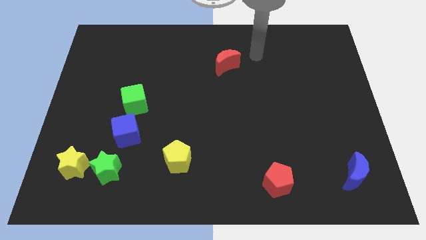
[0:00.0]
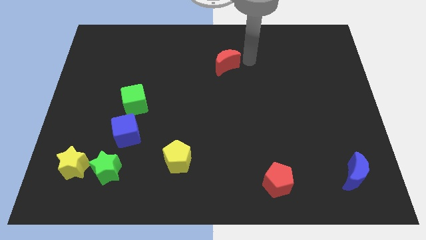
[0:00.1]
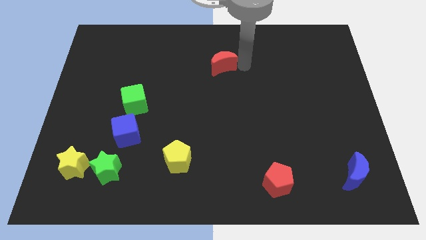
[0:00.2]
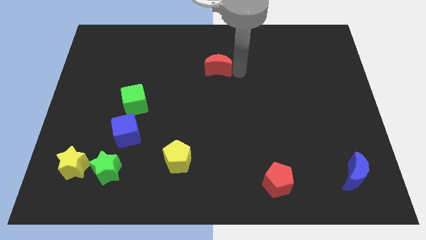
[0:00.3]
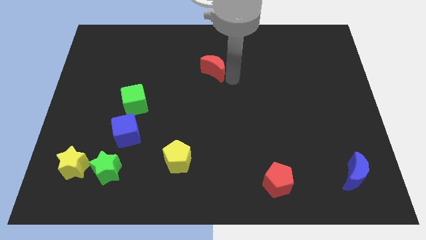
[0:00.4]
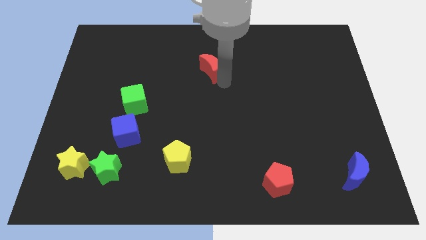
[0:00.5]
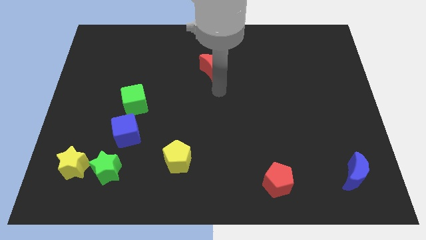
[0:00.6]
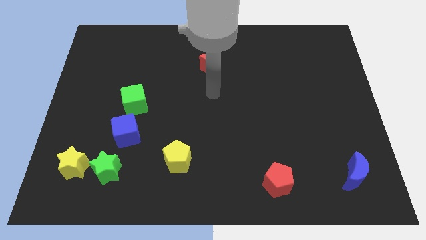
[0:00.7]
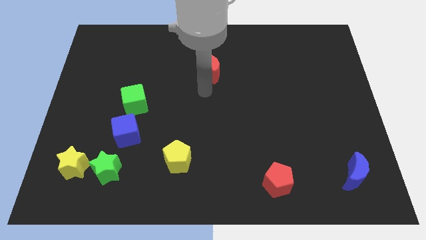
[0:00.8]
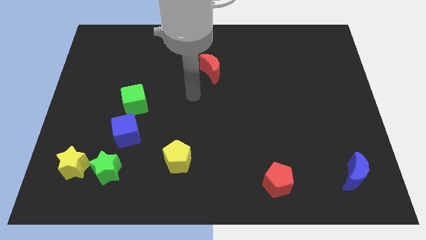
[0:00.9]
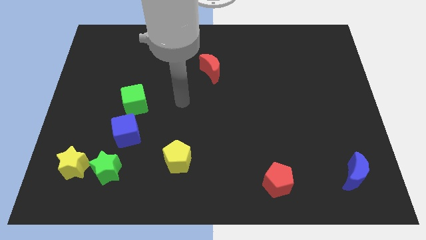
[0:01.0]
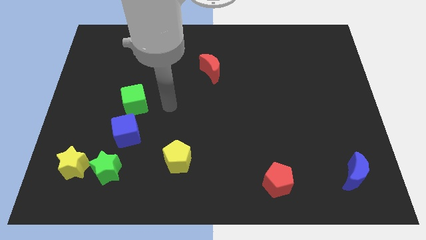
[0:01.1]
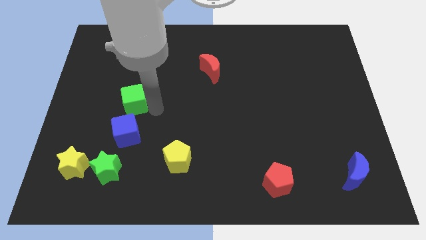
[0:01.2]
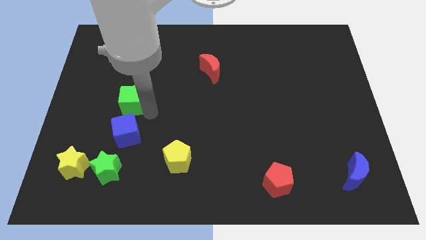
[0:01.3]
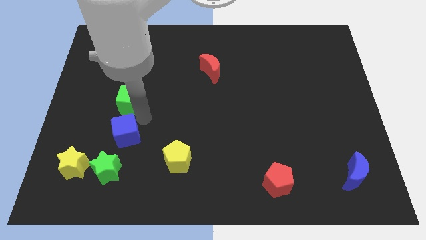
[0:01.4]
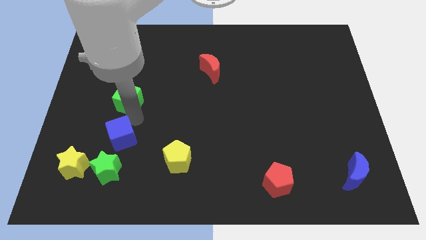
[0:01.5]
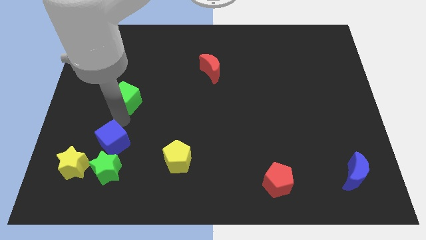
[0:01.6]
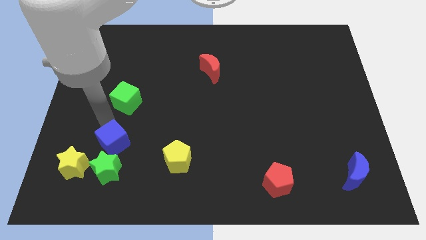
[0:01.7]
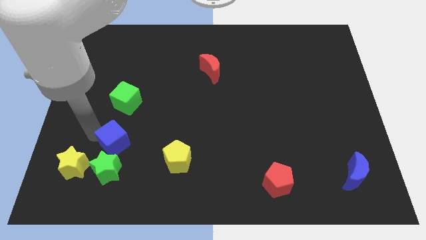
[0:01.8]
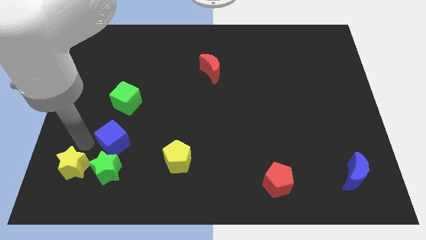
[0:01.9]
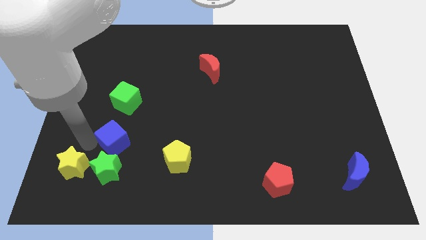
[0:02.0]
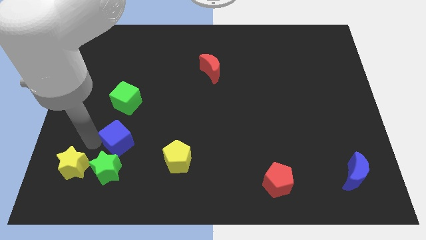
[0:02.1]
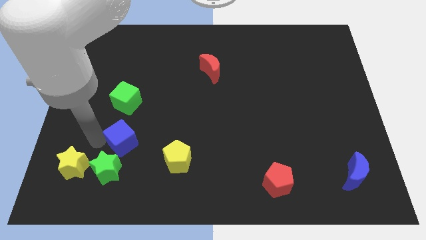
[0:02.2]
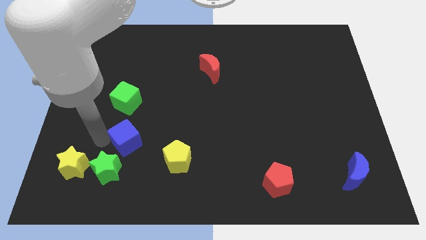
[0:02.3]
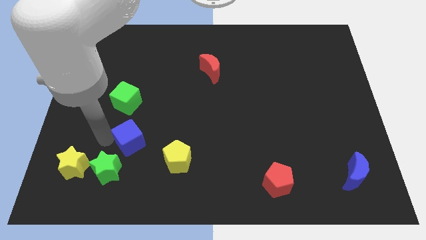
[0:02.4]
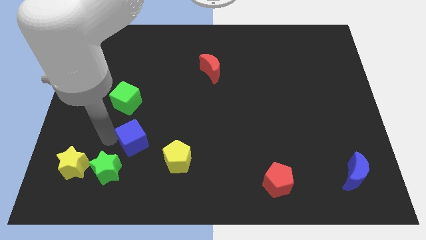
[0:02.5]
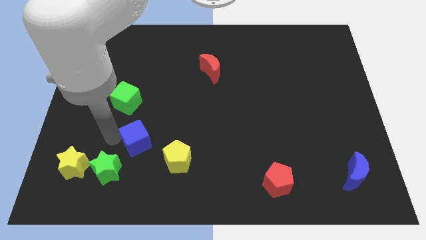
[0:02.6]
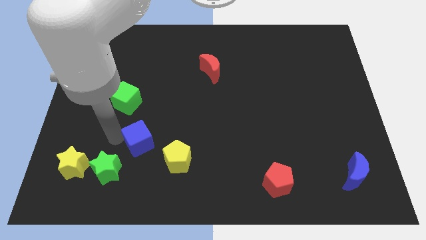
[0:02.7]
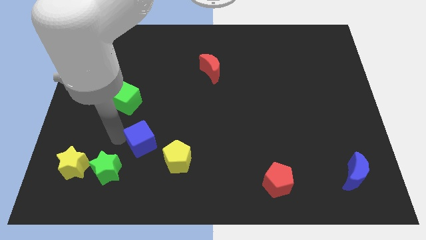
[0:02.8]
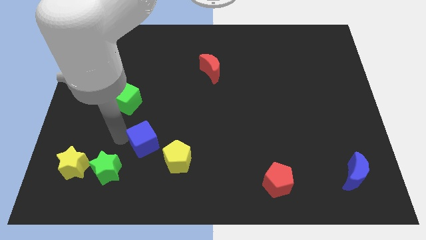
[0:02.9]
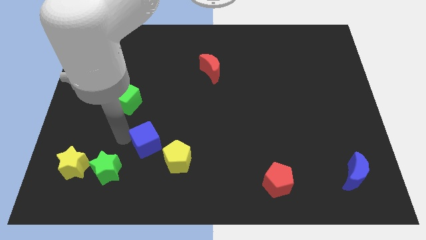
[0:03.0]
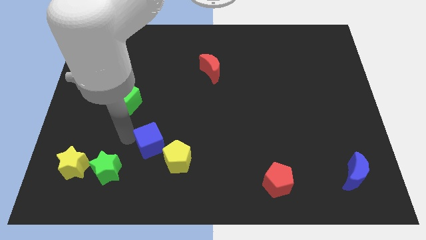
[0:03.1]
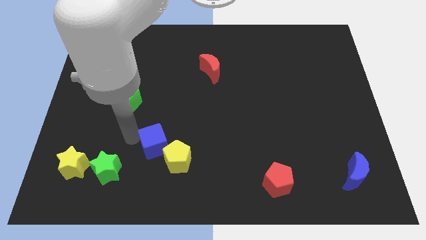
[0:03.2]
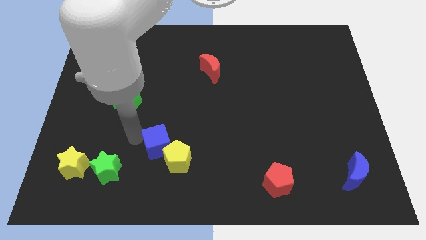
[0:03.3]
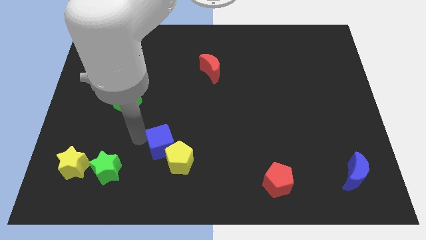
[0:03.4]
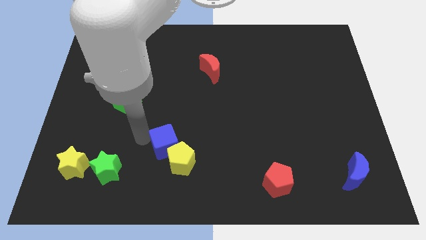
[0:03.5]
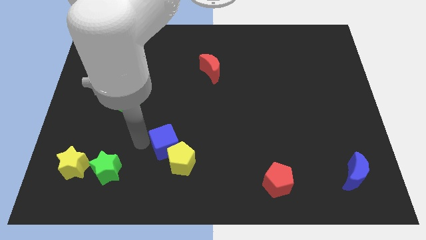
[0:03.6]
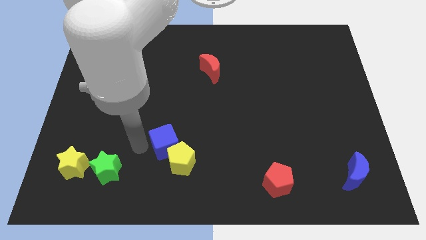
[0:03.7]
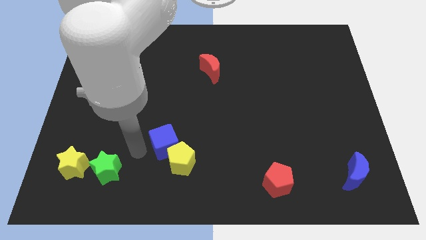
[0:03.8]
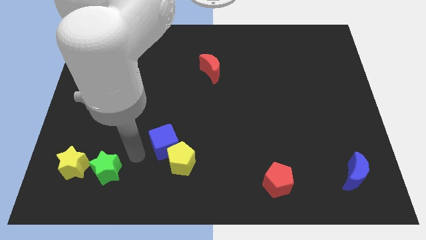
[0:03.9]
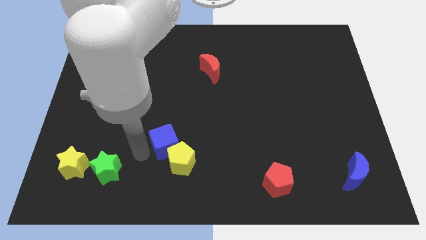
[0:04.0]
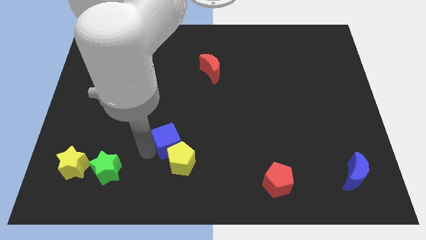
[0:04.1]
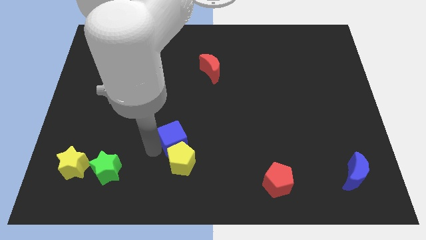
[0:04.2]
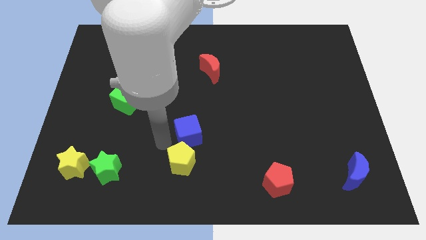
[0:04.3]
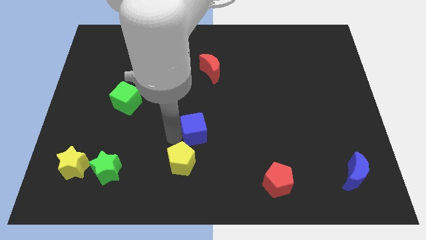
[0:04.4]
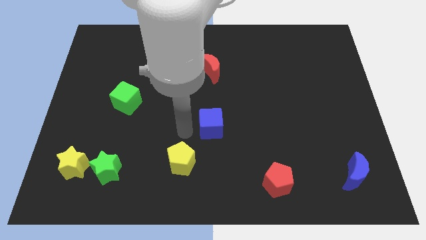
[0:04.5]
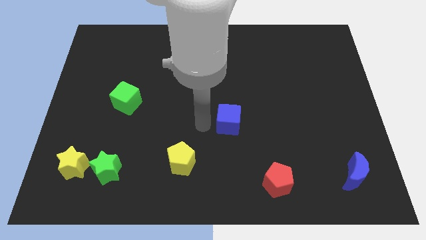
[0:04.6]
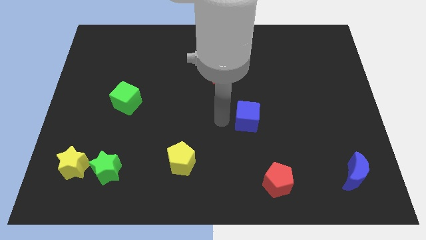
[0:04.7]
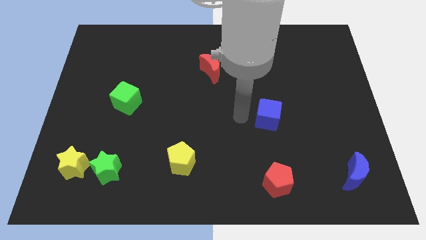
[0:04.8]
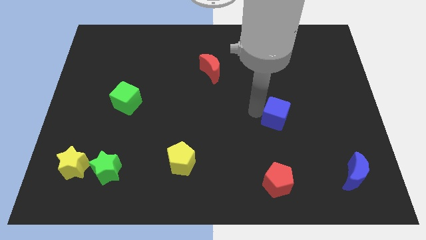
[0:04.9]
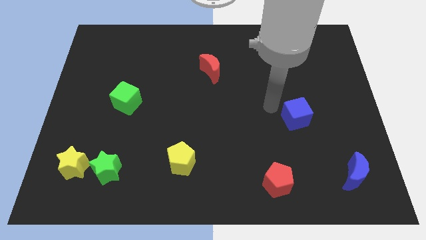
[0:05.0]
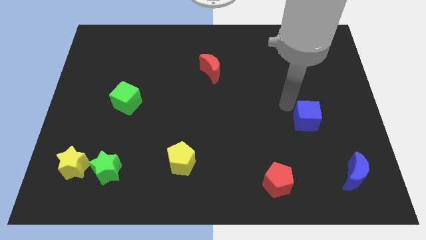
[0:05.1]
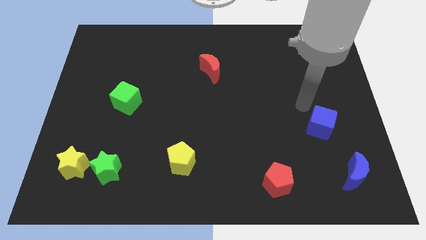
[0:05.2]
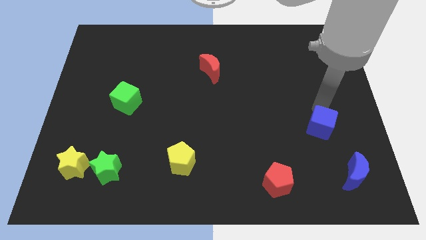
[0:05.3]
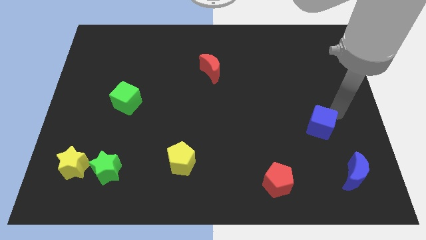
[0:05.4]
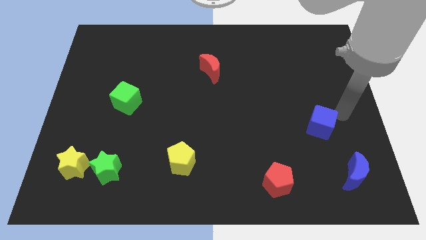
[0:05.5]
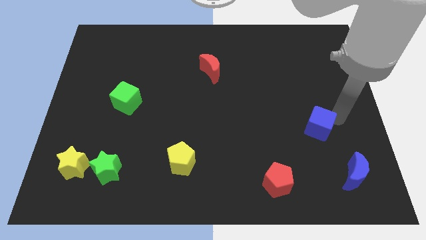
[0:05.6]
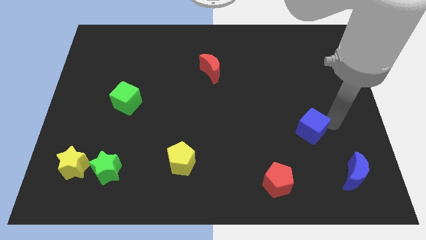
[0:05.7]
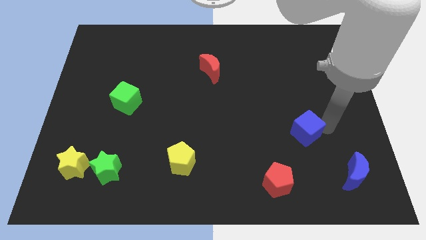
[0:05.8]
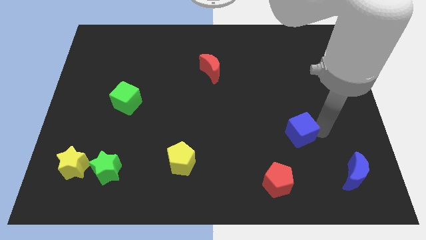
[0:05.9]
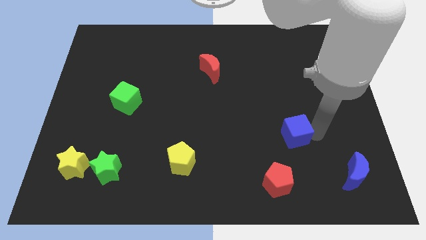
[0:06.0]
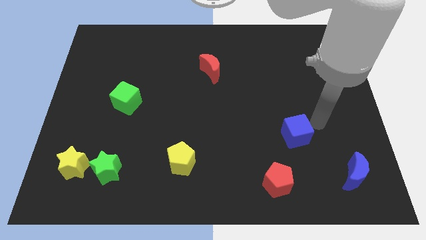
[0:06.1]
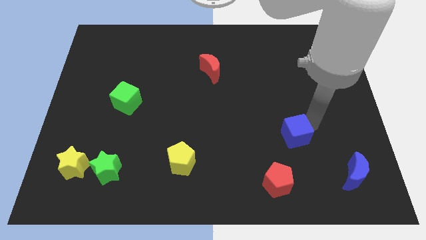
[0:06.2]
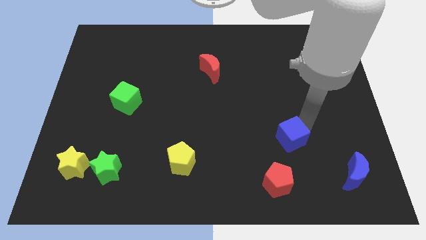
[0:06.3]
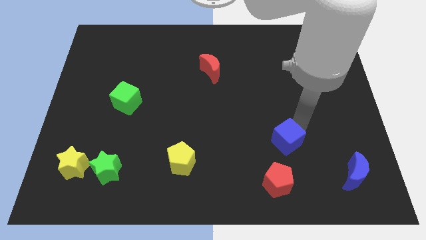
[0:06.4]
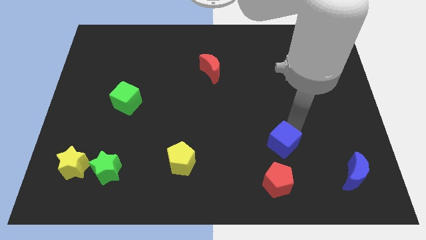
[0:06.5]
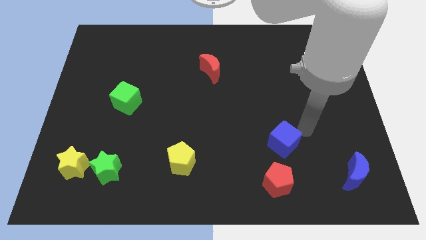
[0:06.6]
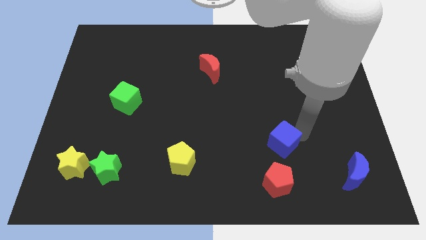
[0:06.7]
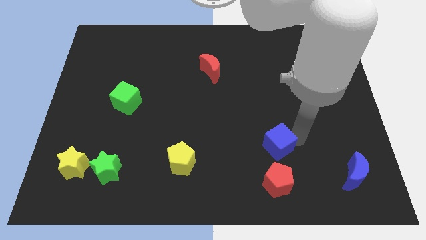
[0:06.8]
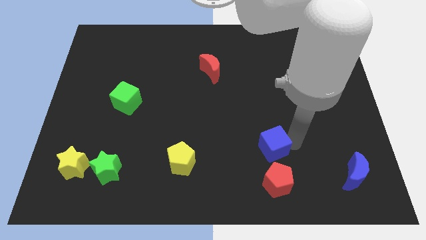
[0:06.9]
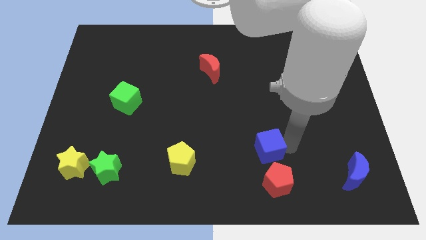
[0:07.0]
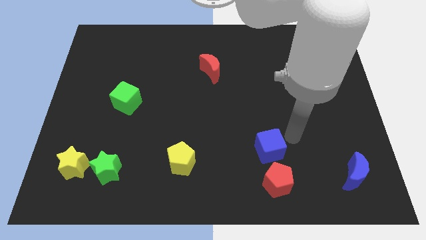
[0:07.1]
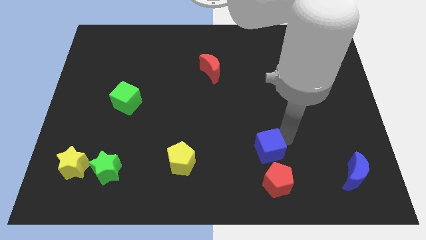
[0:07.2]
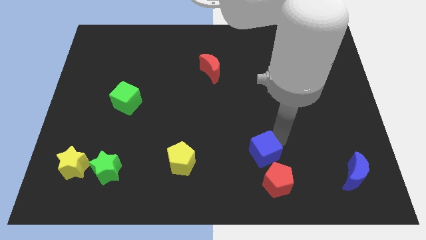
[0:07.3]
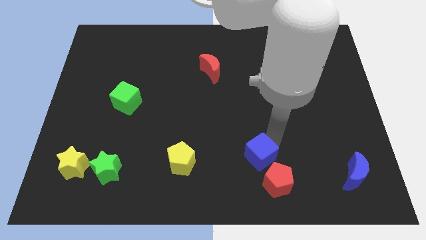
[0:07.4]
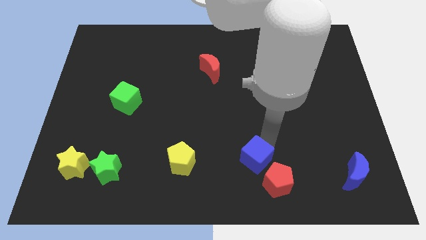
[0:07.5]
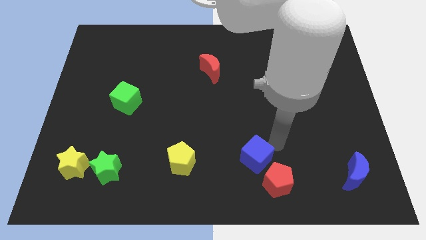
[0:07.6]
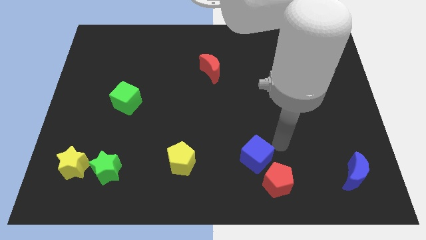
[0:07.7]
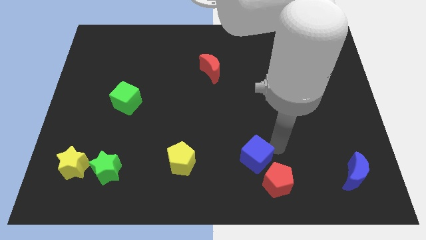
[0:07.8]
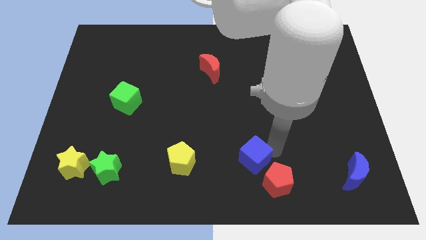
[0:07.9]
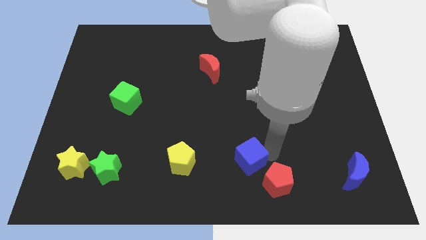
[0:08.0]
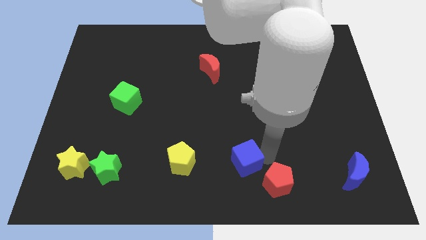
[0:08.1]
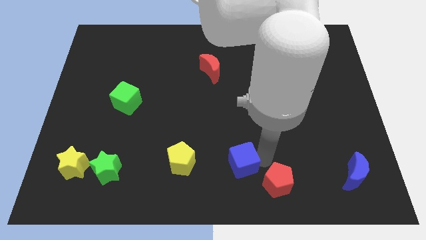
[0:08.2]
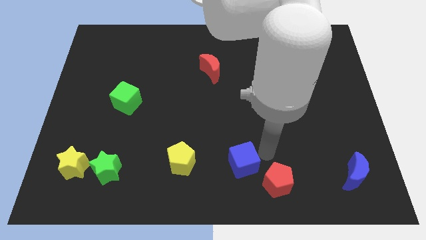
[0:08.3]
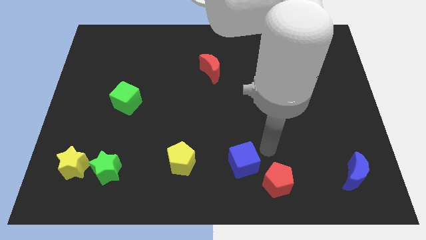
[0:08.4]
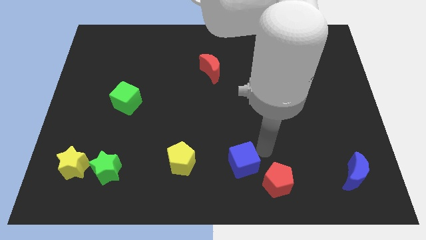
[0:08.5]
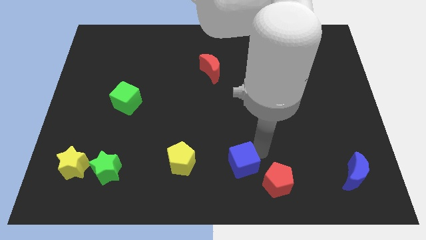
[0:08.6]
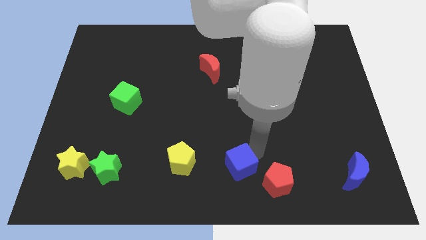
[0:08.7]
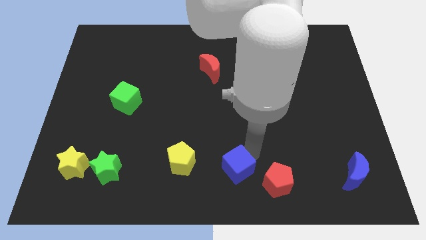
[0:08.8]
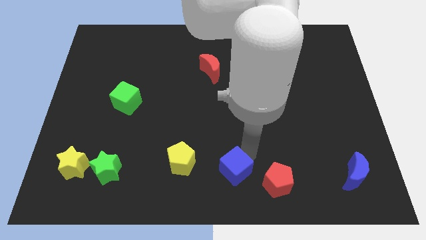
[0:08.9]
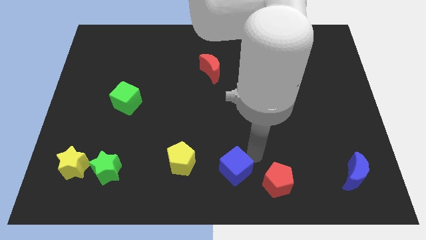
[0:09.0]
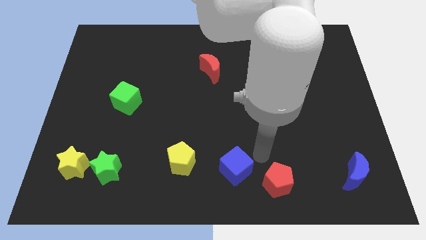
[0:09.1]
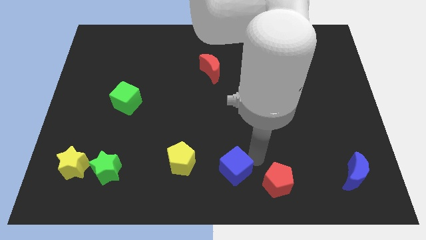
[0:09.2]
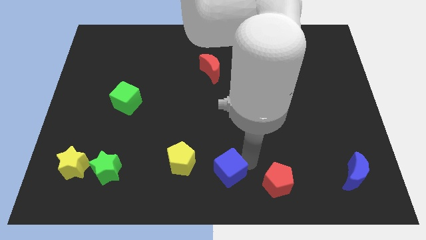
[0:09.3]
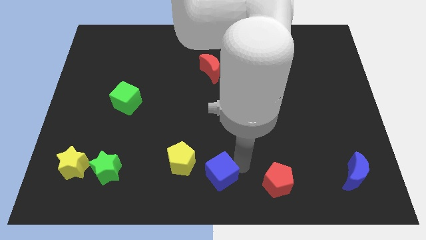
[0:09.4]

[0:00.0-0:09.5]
push the blue cube to the bottom right of the yellow pentagon
